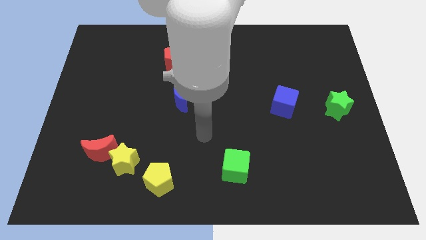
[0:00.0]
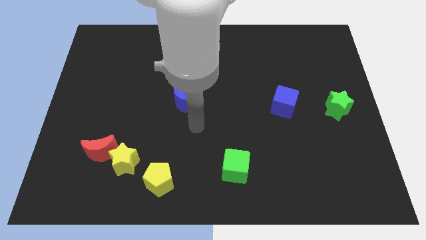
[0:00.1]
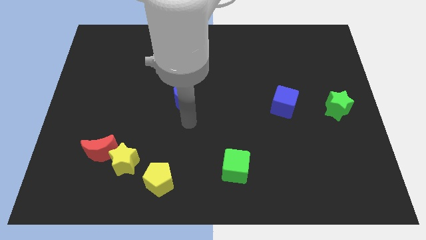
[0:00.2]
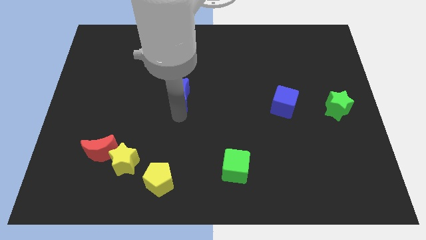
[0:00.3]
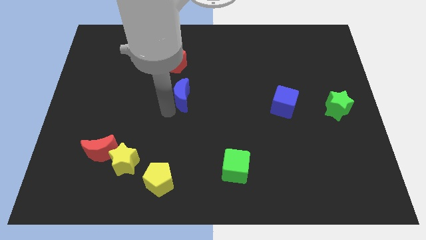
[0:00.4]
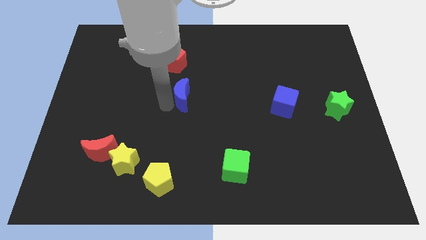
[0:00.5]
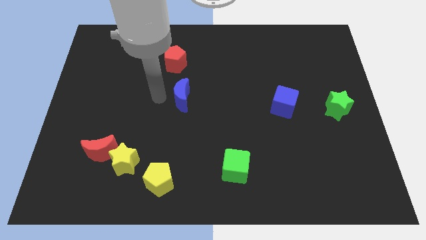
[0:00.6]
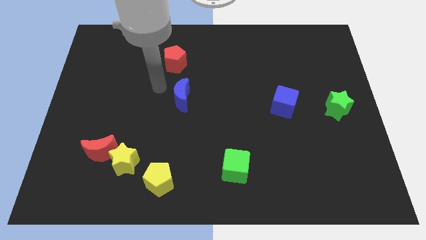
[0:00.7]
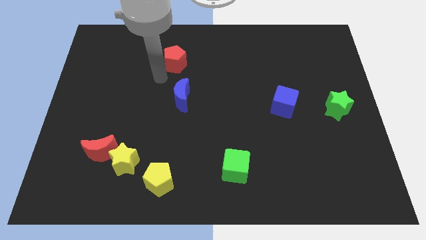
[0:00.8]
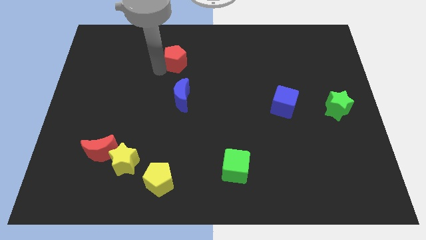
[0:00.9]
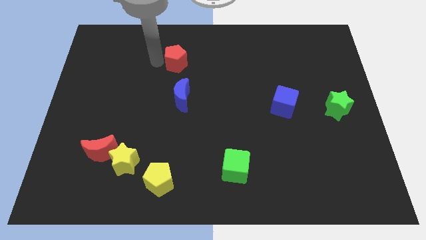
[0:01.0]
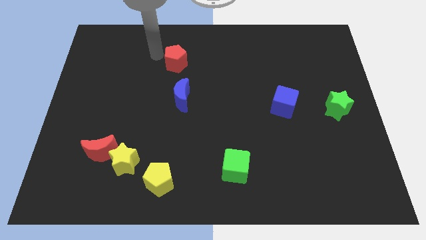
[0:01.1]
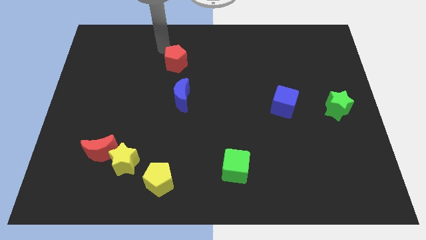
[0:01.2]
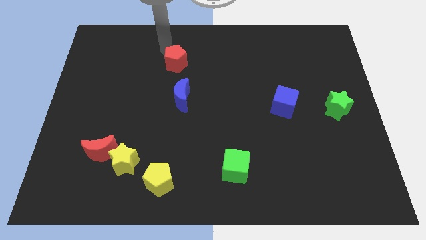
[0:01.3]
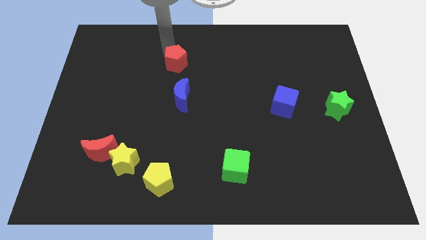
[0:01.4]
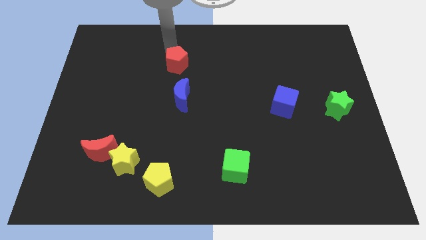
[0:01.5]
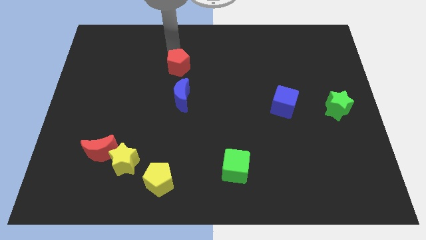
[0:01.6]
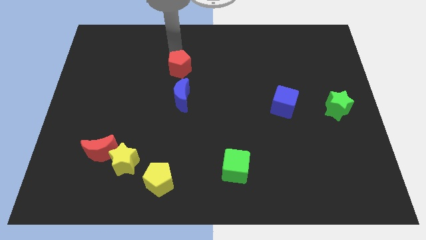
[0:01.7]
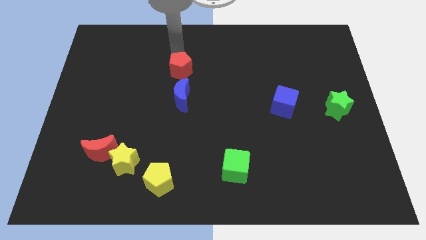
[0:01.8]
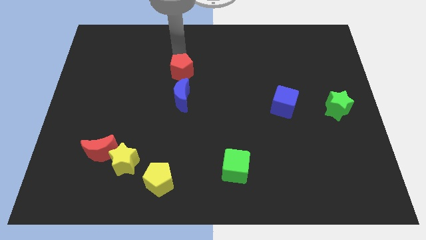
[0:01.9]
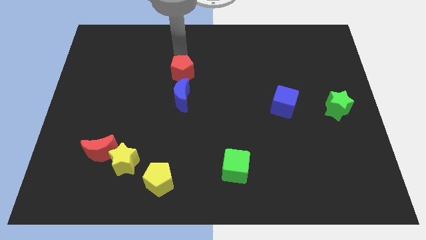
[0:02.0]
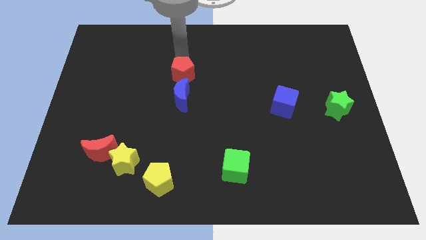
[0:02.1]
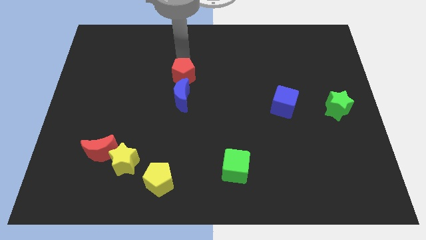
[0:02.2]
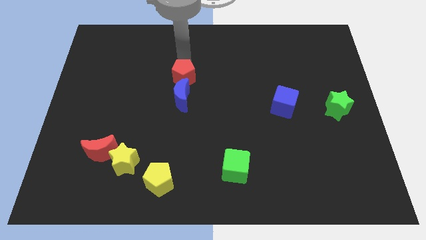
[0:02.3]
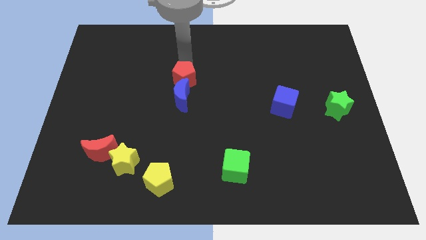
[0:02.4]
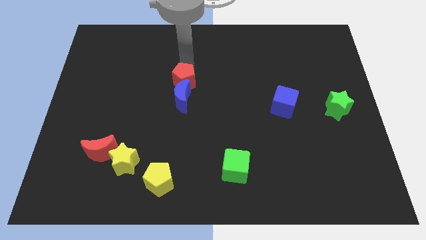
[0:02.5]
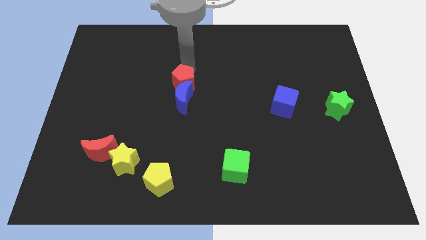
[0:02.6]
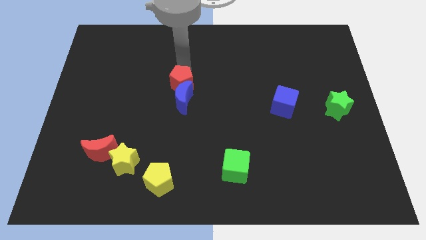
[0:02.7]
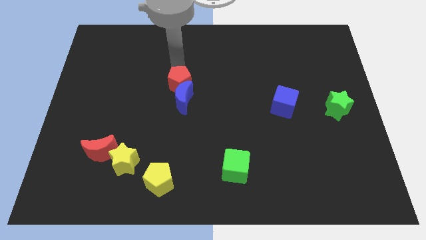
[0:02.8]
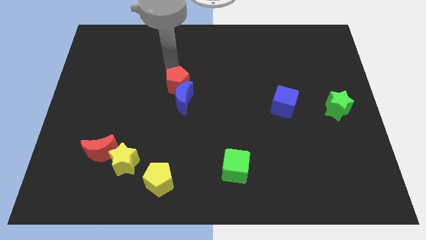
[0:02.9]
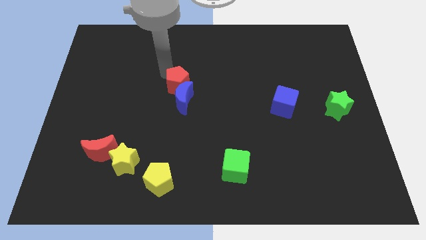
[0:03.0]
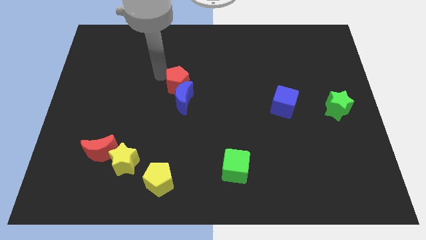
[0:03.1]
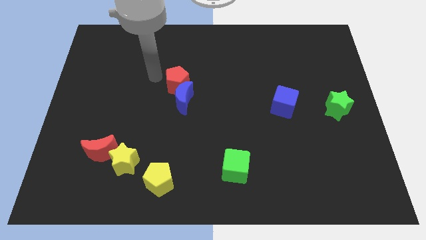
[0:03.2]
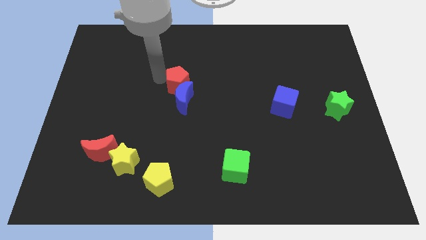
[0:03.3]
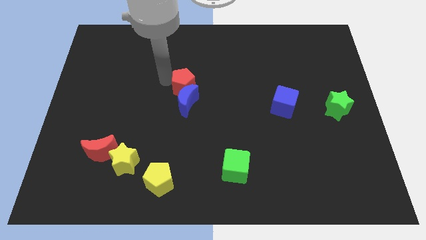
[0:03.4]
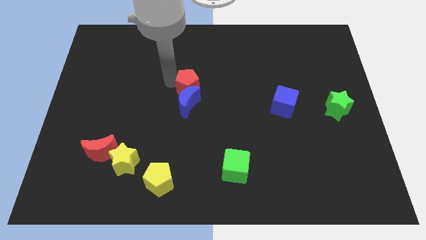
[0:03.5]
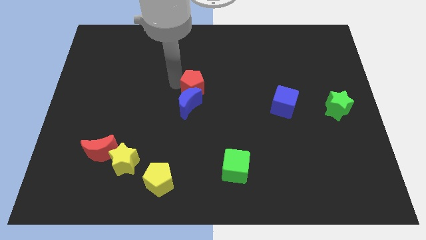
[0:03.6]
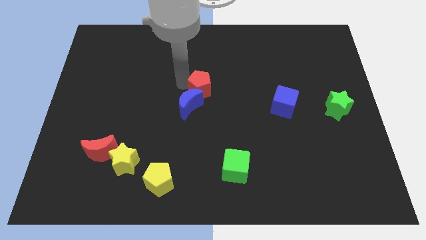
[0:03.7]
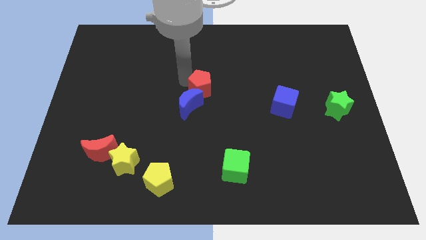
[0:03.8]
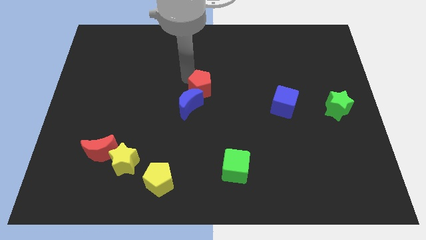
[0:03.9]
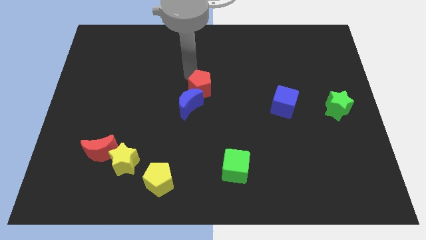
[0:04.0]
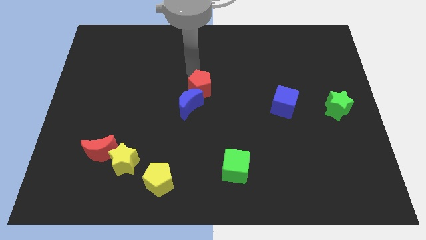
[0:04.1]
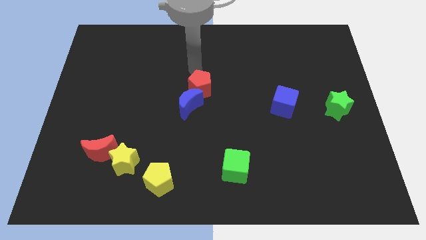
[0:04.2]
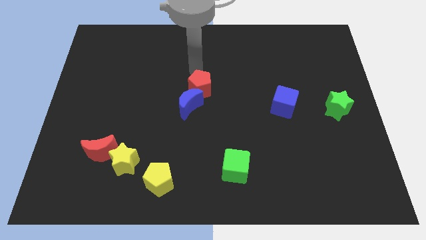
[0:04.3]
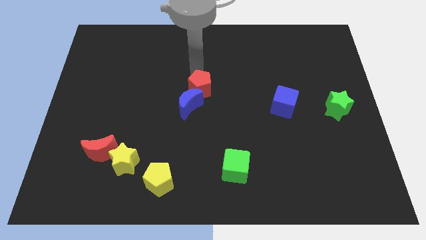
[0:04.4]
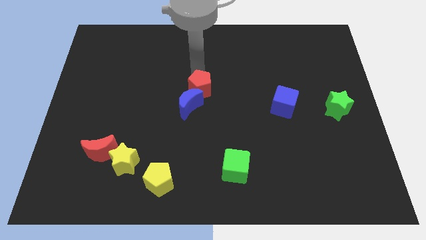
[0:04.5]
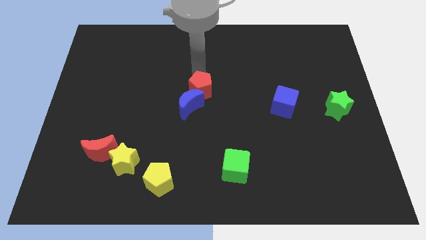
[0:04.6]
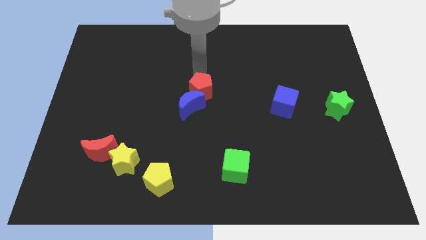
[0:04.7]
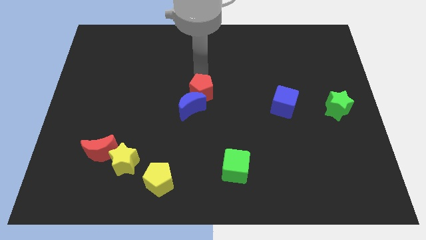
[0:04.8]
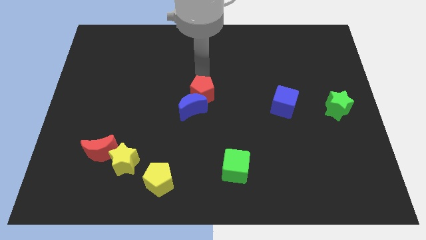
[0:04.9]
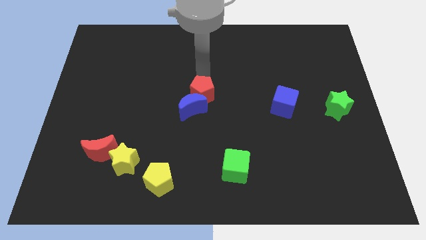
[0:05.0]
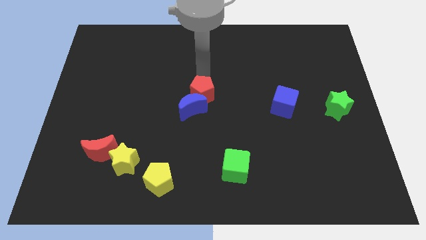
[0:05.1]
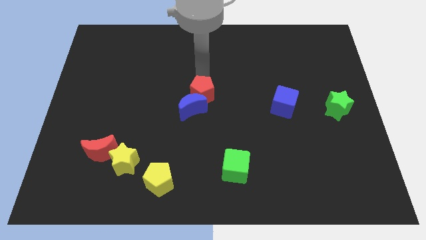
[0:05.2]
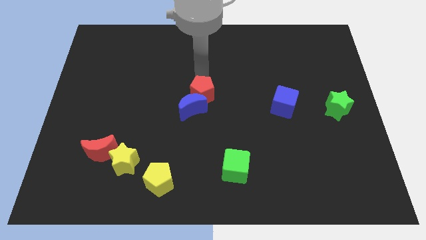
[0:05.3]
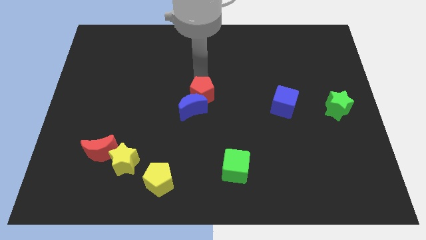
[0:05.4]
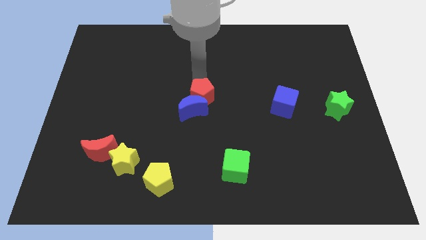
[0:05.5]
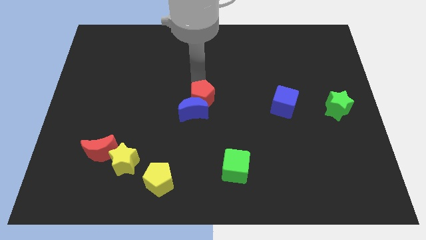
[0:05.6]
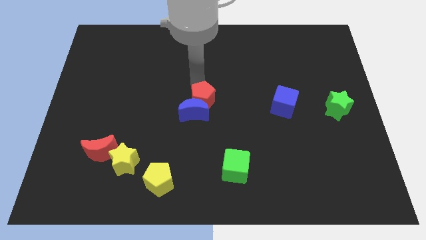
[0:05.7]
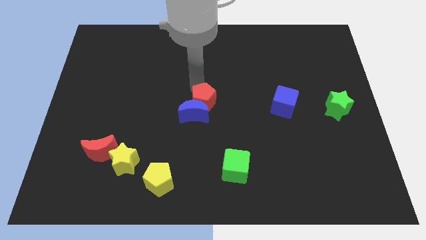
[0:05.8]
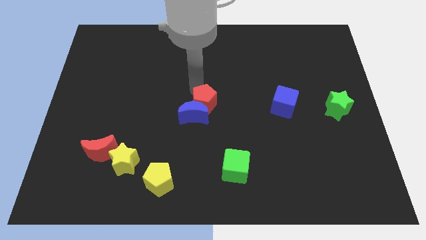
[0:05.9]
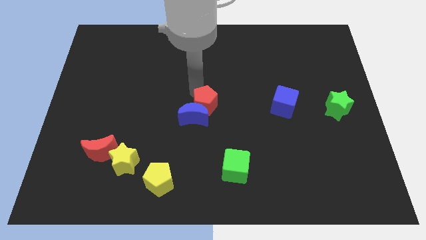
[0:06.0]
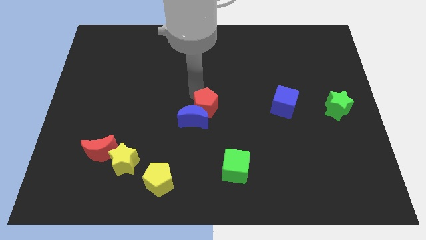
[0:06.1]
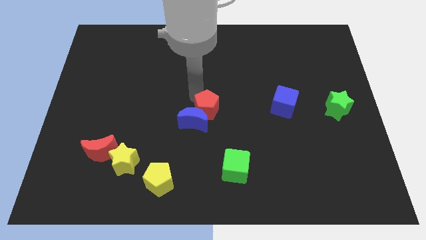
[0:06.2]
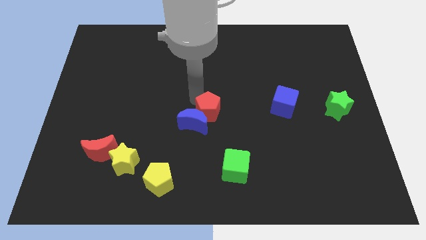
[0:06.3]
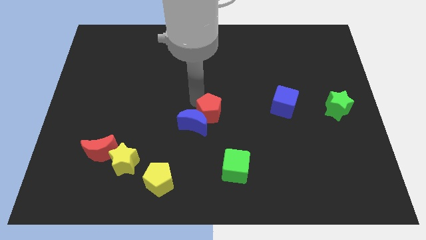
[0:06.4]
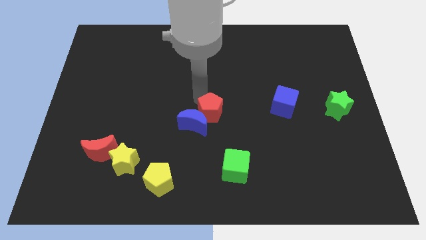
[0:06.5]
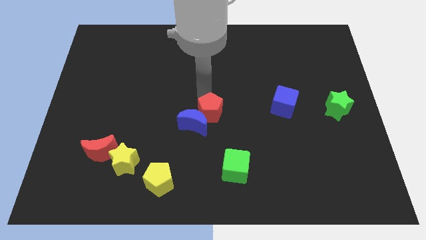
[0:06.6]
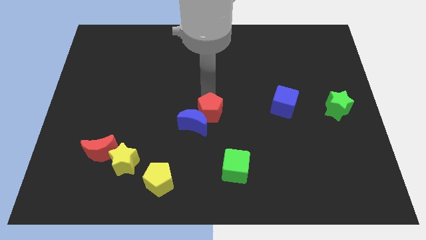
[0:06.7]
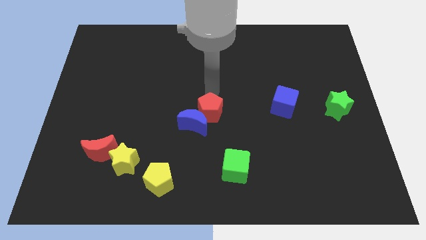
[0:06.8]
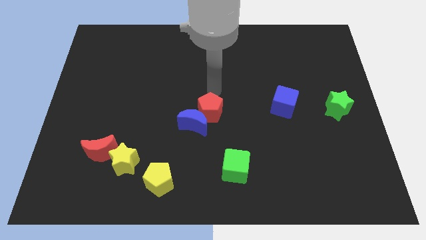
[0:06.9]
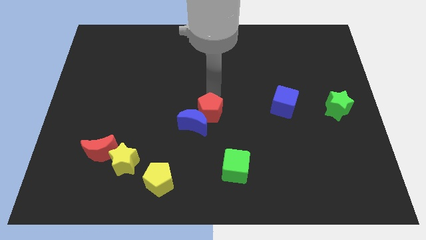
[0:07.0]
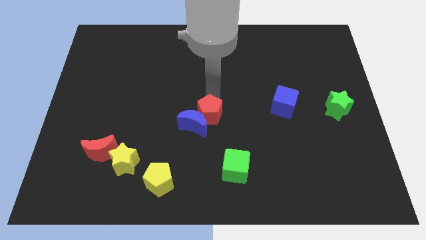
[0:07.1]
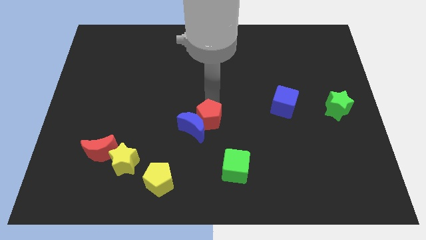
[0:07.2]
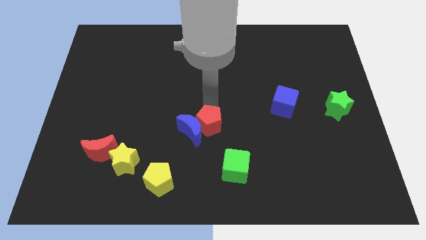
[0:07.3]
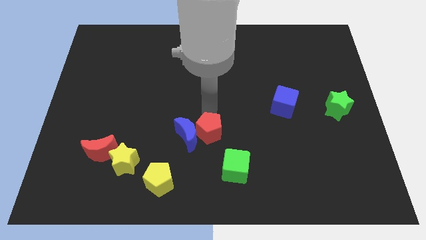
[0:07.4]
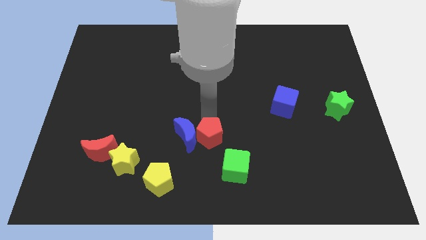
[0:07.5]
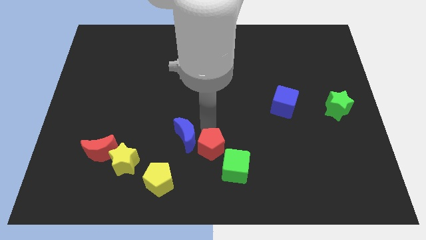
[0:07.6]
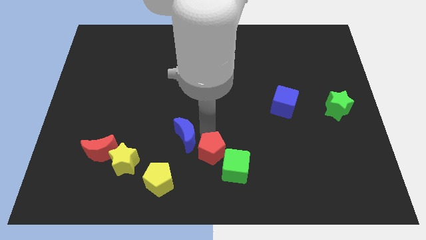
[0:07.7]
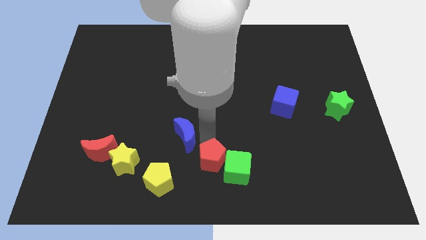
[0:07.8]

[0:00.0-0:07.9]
put the red pentagon towards the green cube

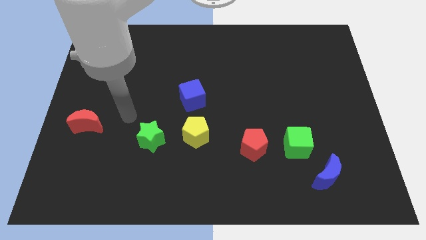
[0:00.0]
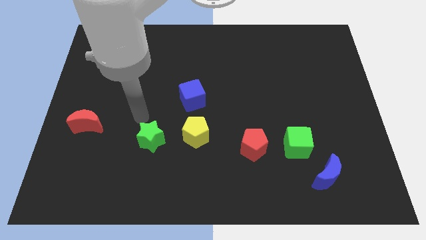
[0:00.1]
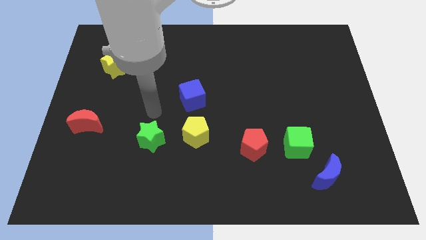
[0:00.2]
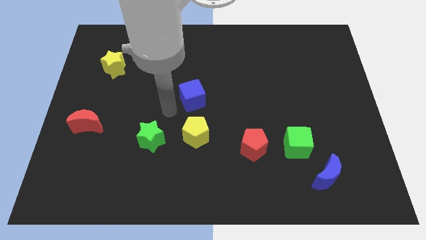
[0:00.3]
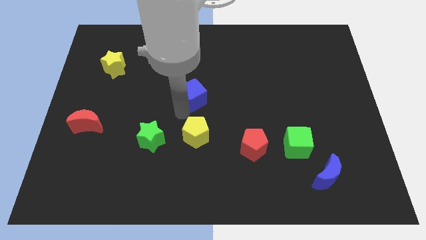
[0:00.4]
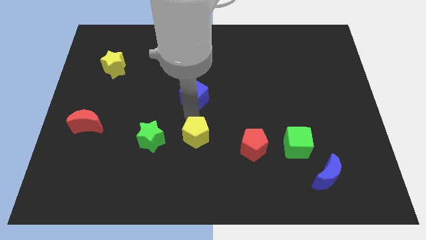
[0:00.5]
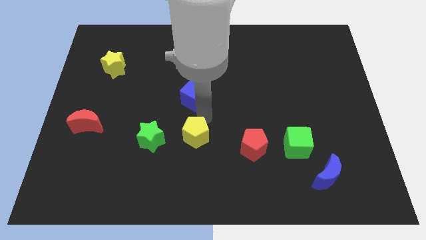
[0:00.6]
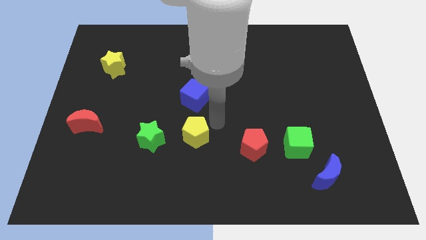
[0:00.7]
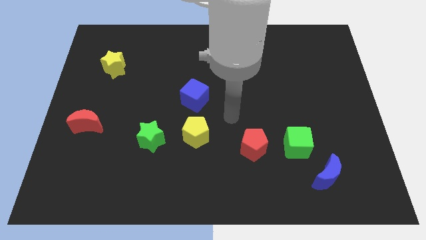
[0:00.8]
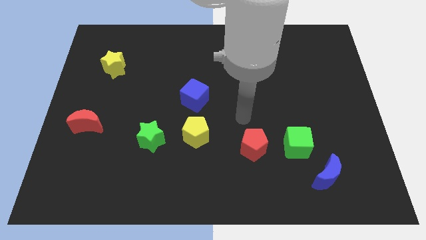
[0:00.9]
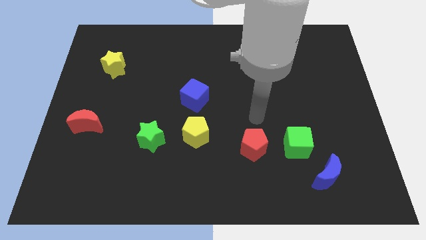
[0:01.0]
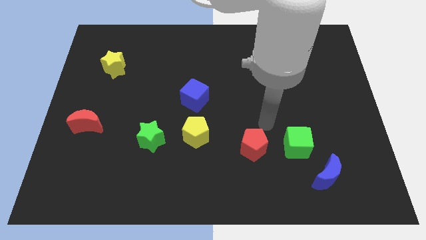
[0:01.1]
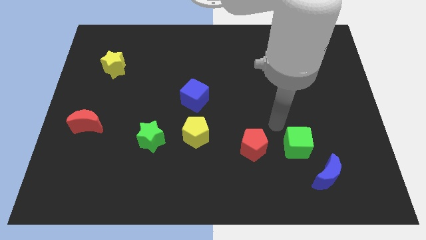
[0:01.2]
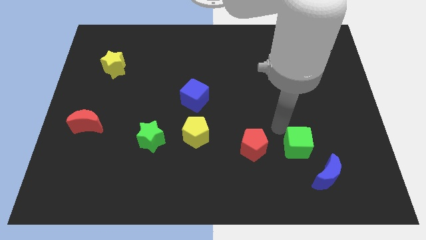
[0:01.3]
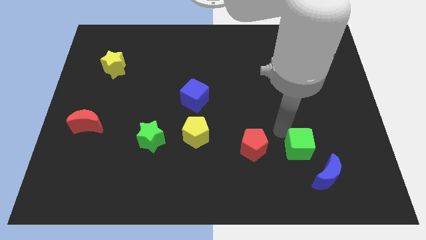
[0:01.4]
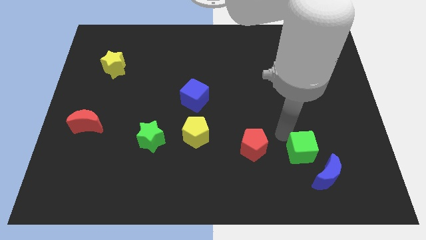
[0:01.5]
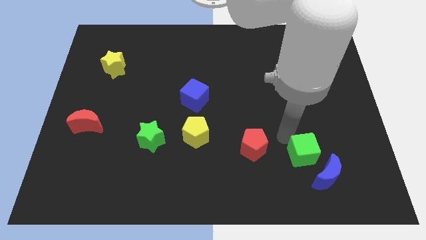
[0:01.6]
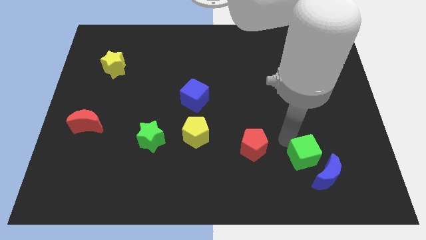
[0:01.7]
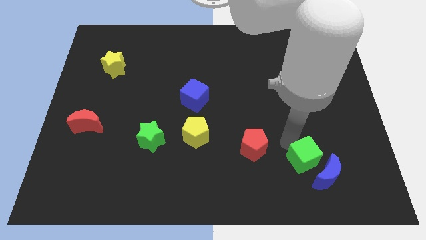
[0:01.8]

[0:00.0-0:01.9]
push the green cube close to the blue moon
